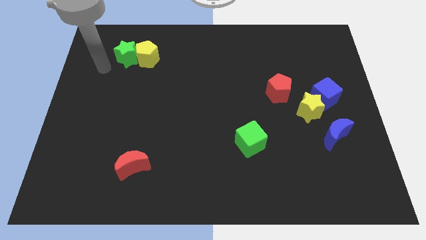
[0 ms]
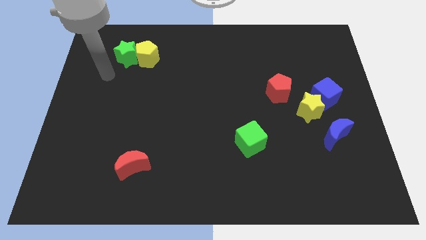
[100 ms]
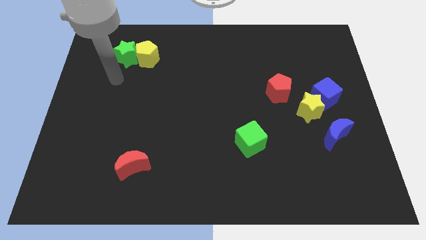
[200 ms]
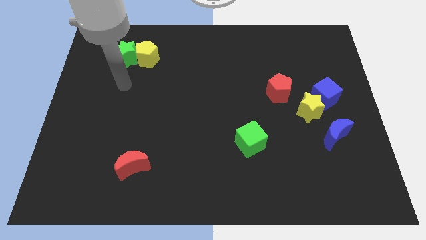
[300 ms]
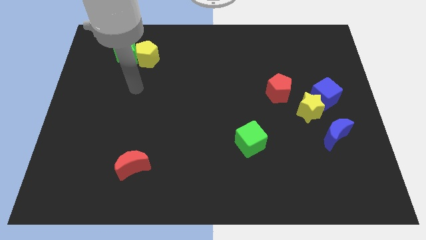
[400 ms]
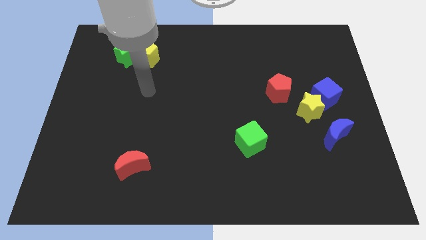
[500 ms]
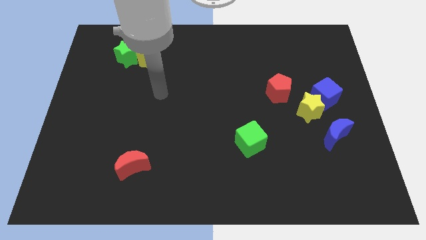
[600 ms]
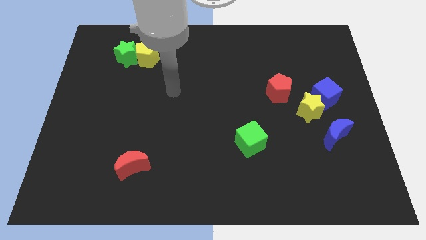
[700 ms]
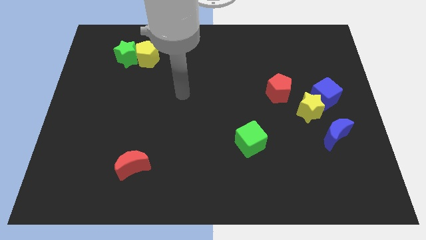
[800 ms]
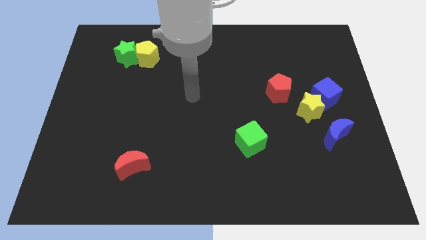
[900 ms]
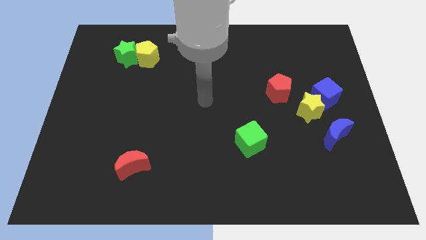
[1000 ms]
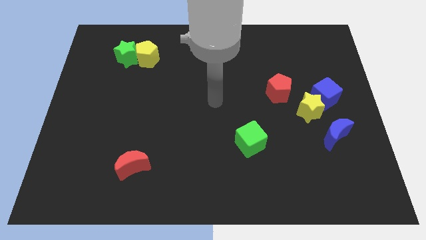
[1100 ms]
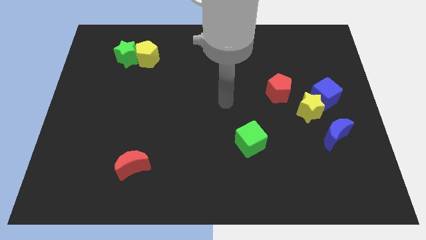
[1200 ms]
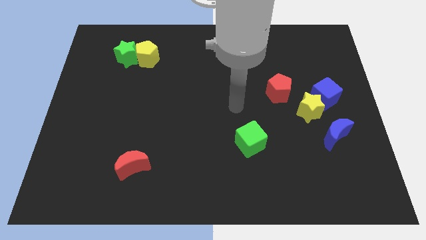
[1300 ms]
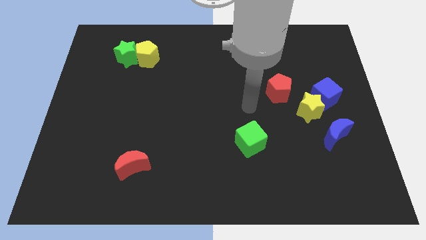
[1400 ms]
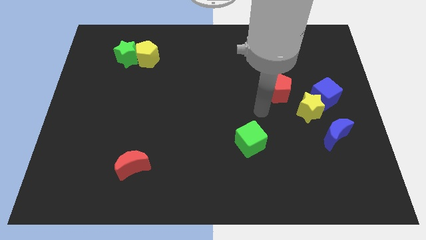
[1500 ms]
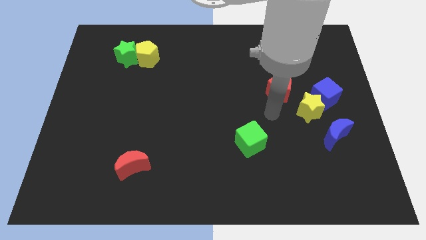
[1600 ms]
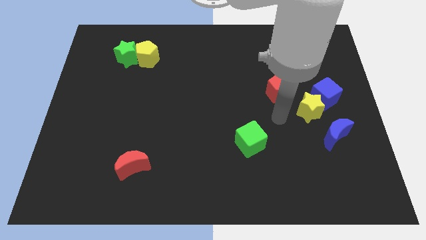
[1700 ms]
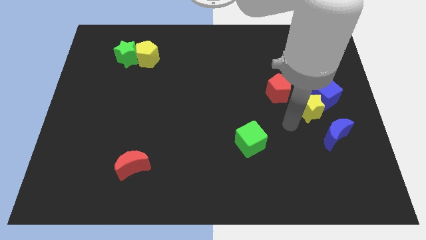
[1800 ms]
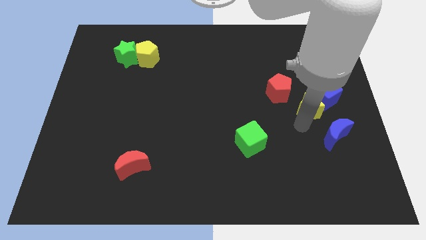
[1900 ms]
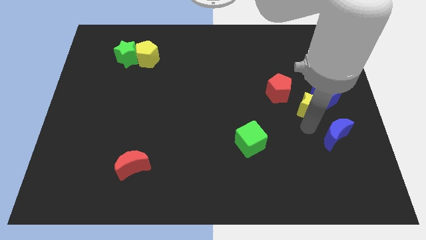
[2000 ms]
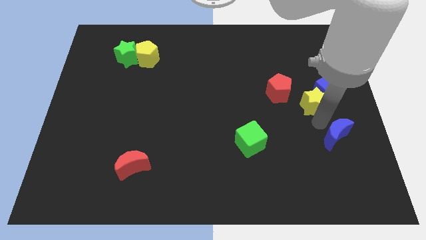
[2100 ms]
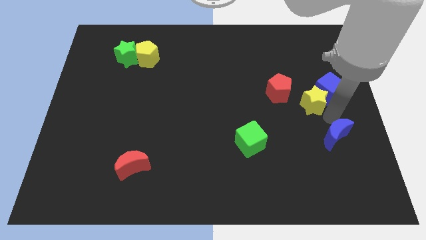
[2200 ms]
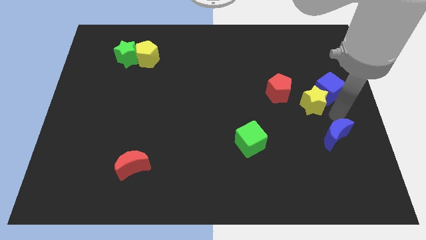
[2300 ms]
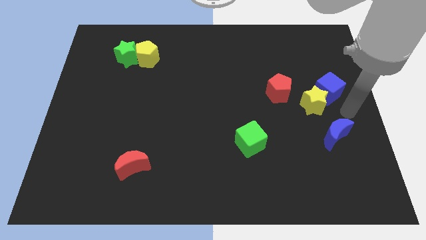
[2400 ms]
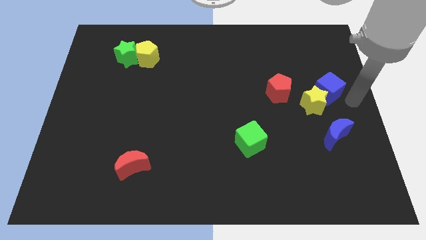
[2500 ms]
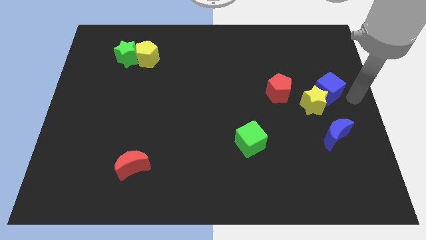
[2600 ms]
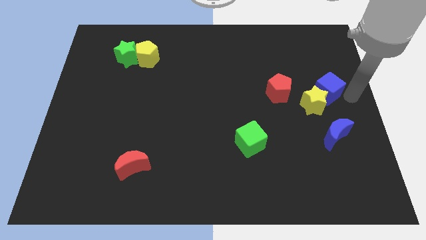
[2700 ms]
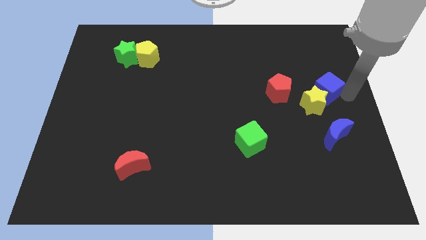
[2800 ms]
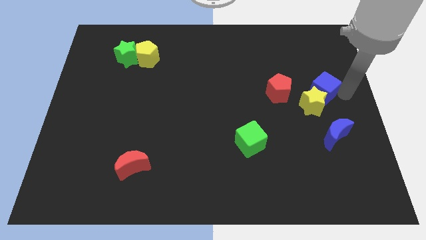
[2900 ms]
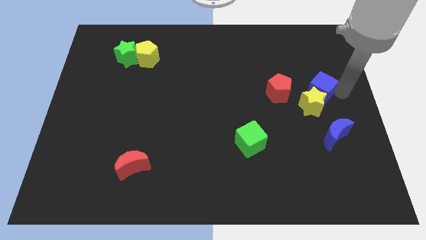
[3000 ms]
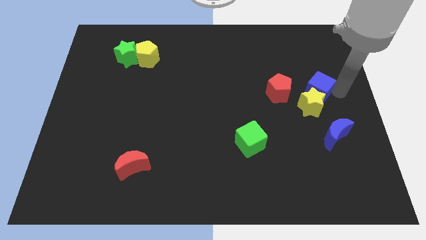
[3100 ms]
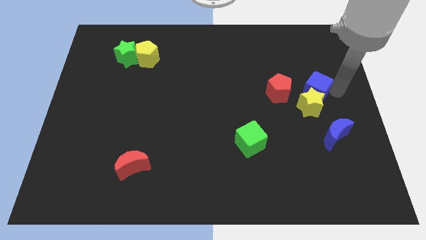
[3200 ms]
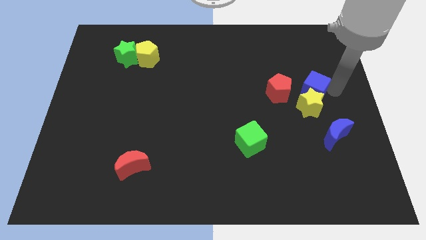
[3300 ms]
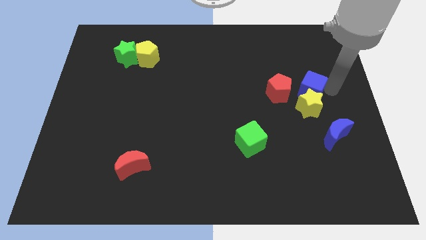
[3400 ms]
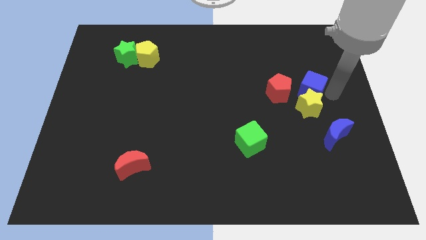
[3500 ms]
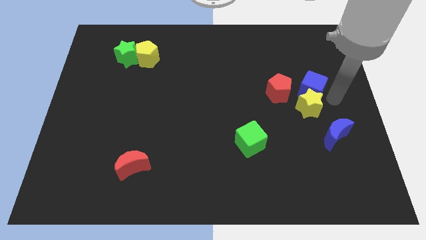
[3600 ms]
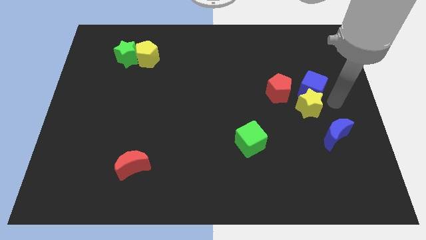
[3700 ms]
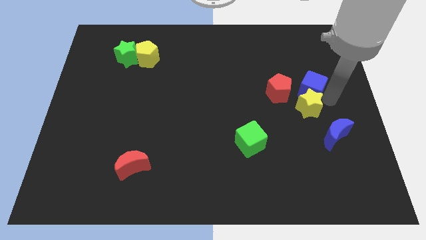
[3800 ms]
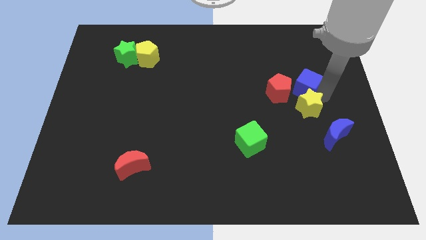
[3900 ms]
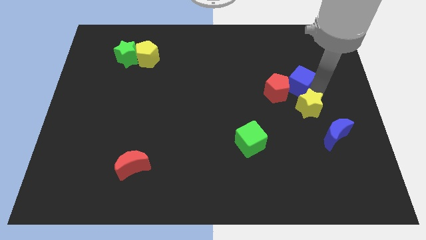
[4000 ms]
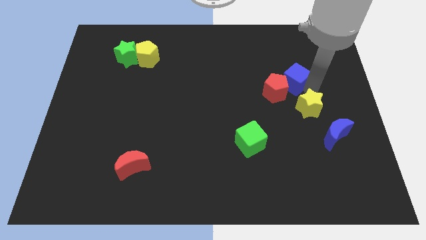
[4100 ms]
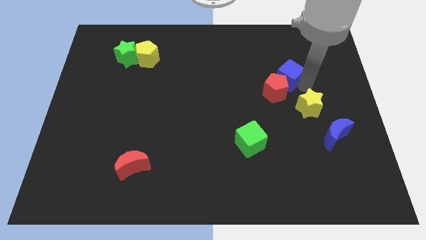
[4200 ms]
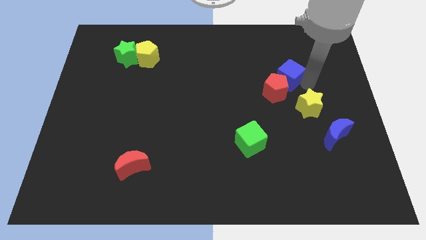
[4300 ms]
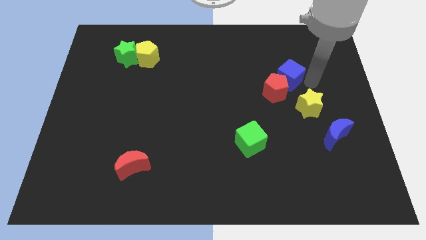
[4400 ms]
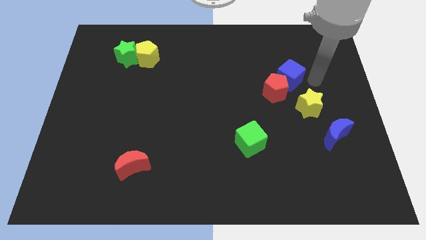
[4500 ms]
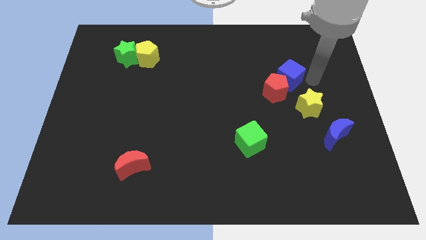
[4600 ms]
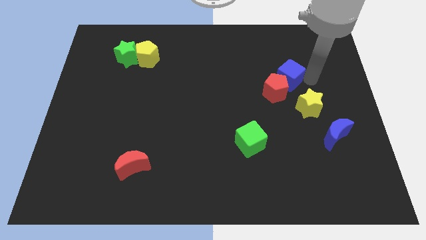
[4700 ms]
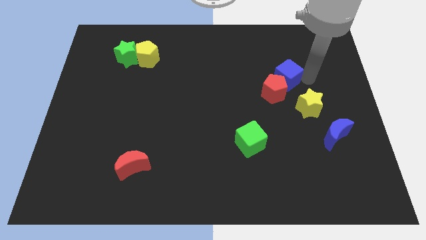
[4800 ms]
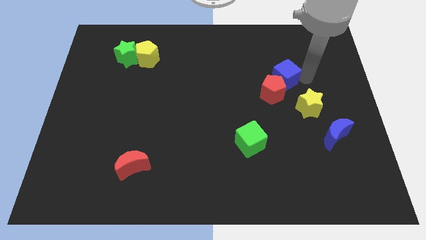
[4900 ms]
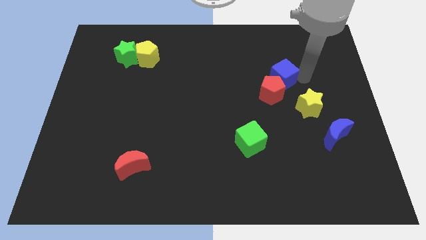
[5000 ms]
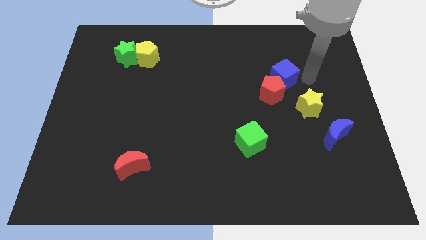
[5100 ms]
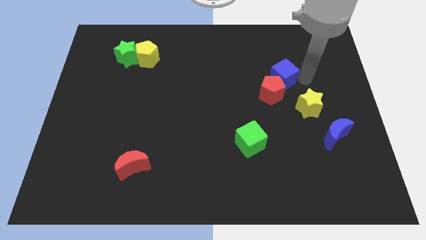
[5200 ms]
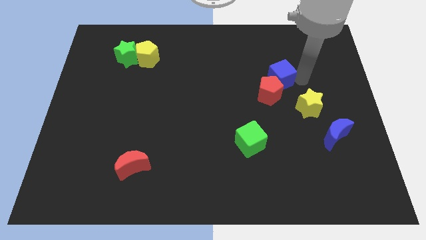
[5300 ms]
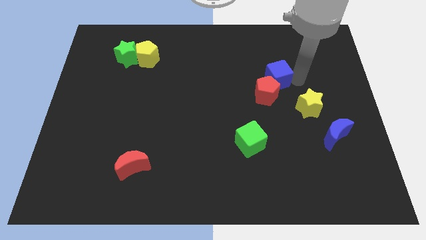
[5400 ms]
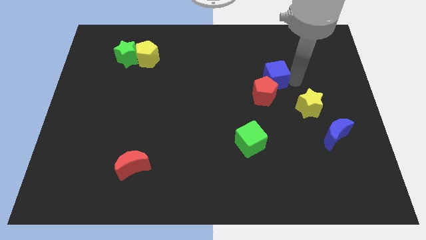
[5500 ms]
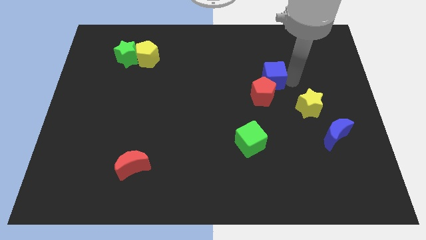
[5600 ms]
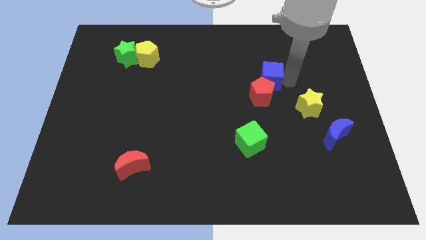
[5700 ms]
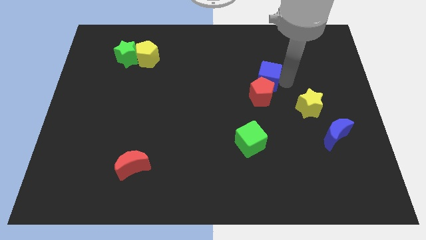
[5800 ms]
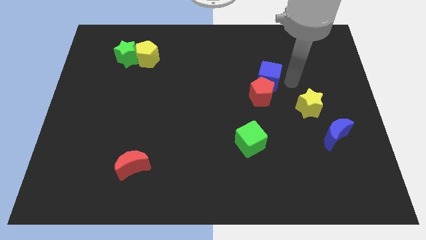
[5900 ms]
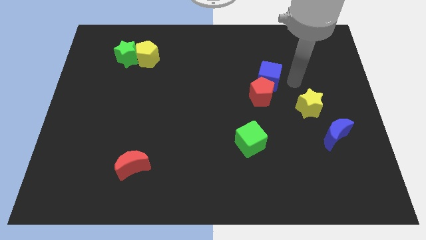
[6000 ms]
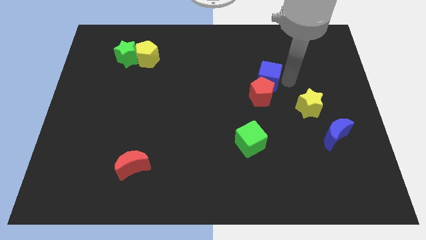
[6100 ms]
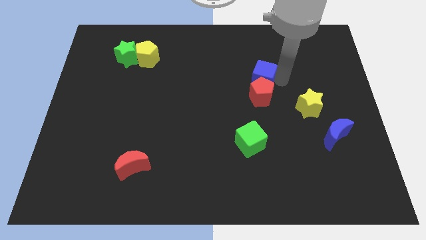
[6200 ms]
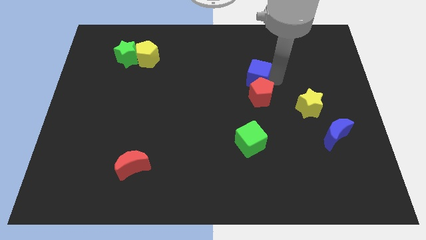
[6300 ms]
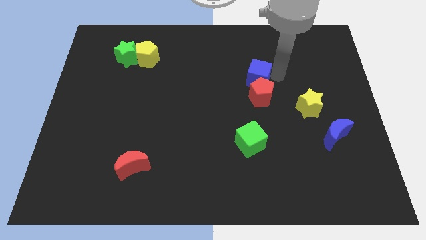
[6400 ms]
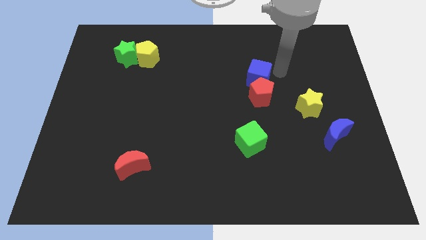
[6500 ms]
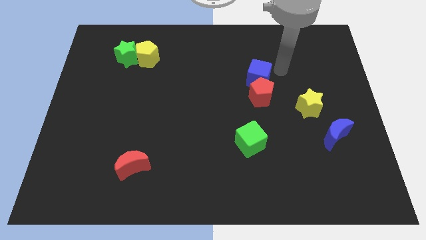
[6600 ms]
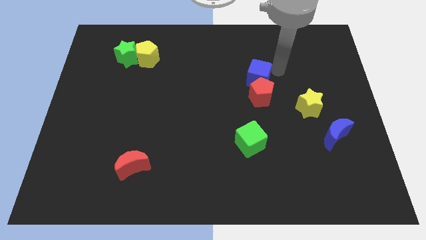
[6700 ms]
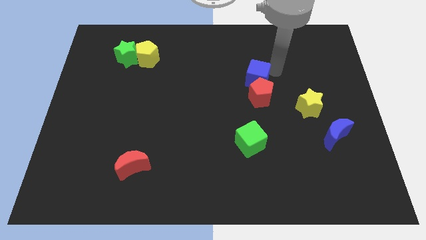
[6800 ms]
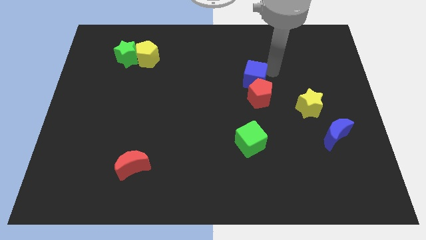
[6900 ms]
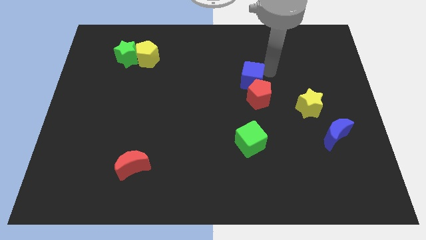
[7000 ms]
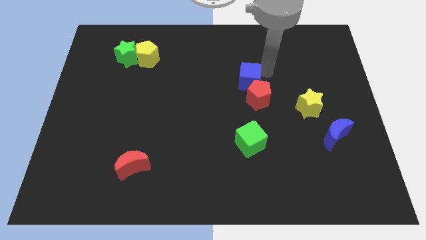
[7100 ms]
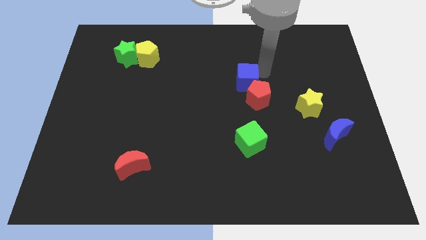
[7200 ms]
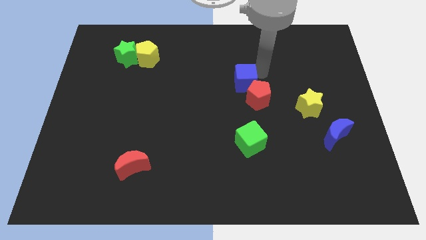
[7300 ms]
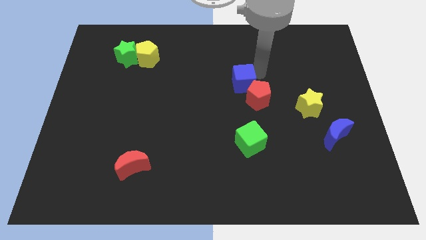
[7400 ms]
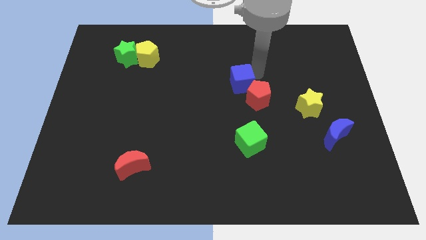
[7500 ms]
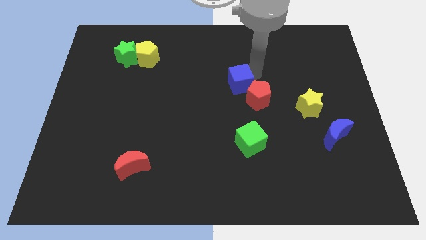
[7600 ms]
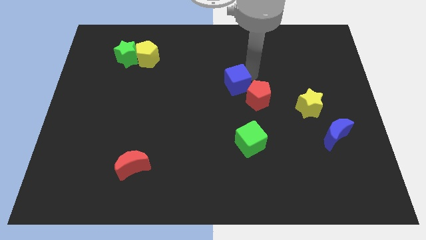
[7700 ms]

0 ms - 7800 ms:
slide the blue cube left
